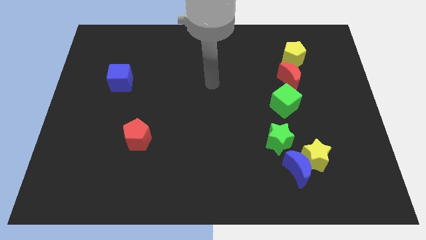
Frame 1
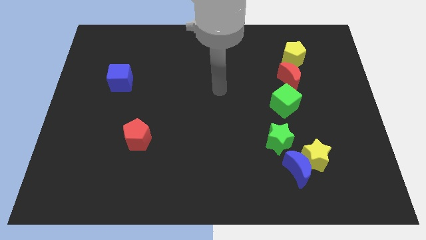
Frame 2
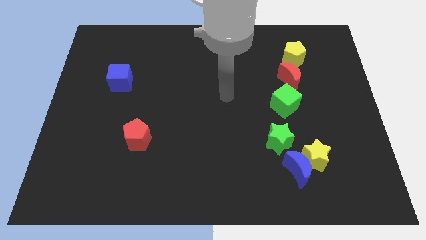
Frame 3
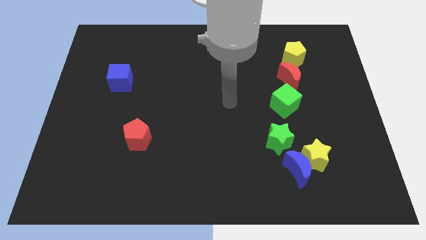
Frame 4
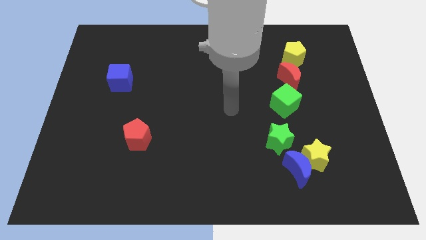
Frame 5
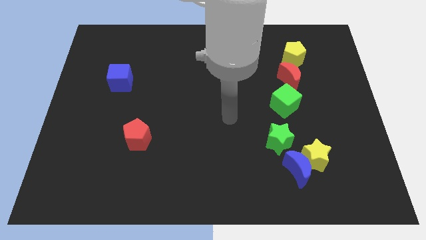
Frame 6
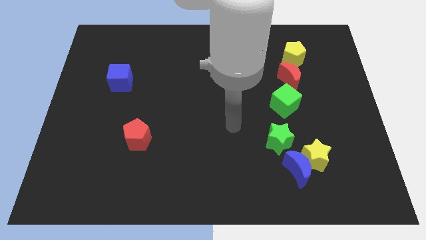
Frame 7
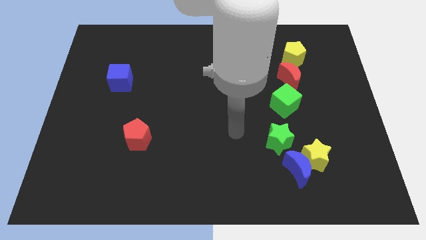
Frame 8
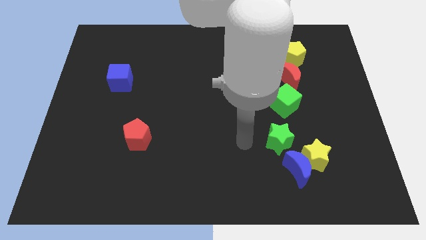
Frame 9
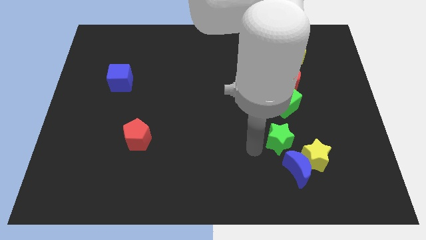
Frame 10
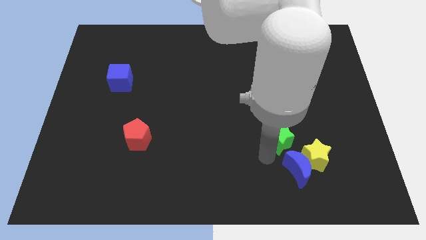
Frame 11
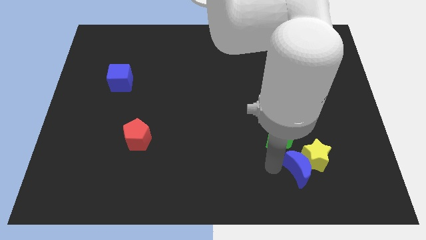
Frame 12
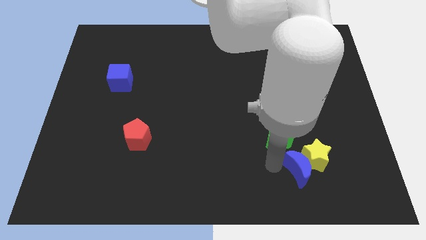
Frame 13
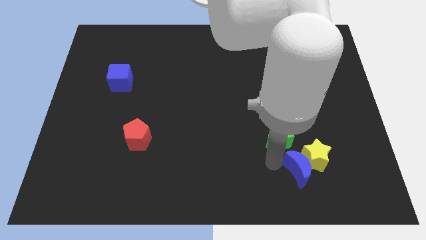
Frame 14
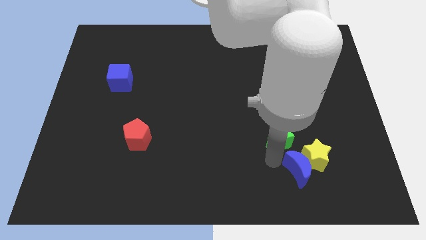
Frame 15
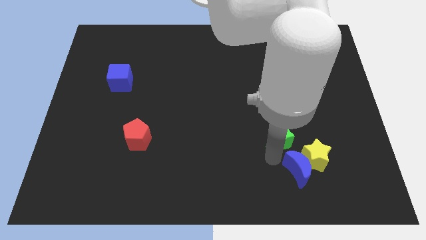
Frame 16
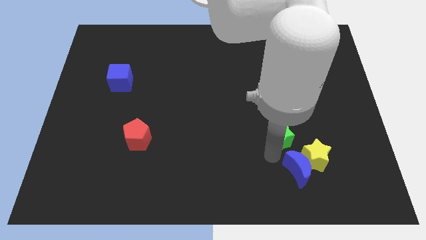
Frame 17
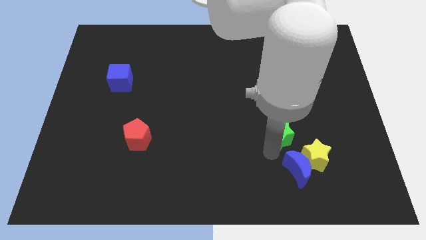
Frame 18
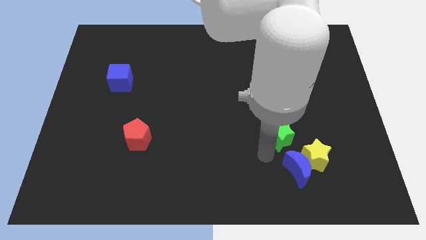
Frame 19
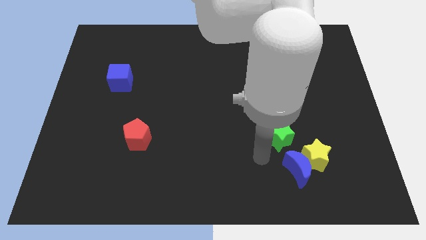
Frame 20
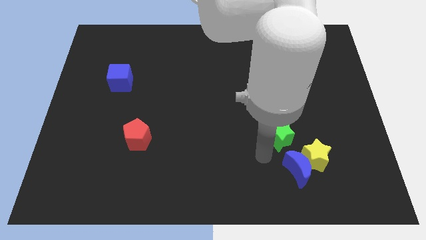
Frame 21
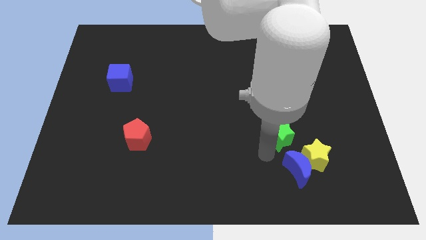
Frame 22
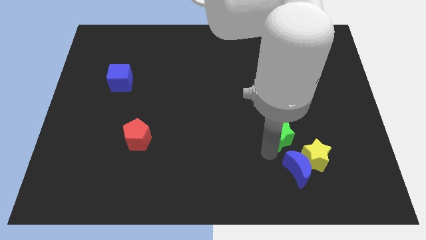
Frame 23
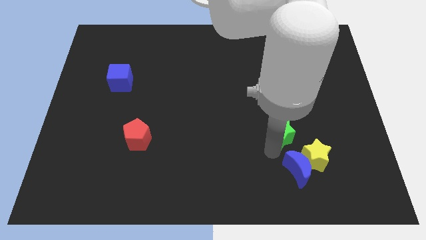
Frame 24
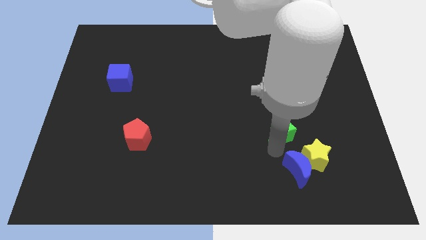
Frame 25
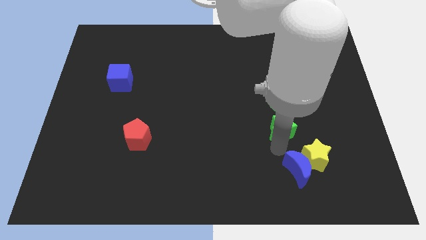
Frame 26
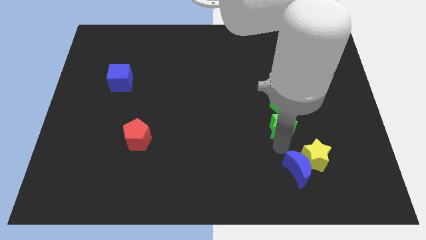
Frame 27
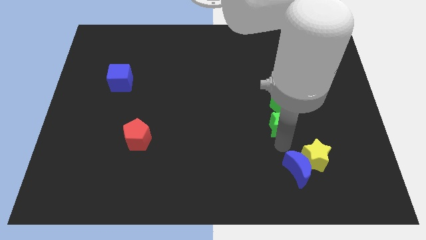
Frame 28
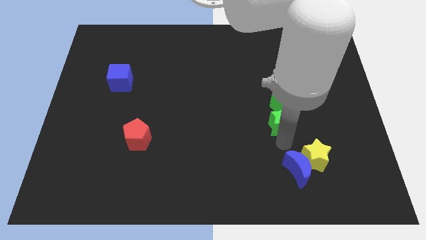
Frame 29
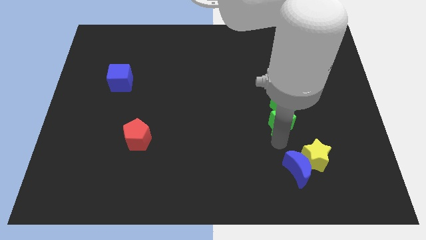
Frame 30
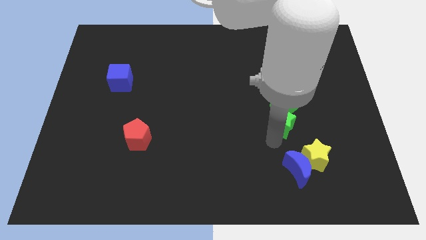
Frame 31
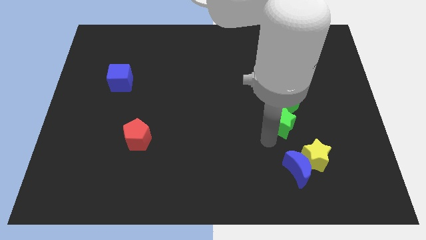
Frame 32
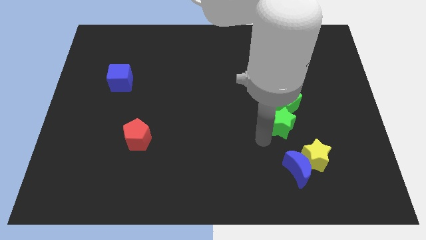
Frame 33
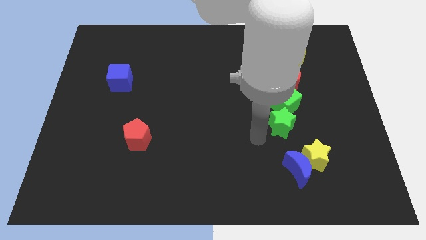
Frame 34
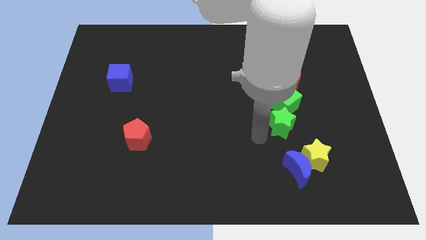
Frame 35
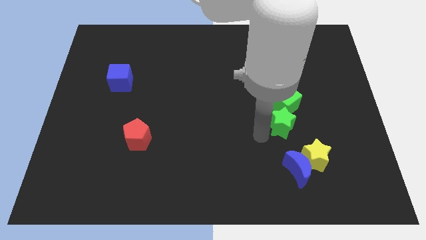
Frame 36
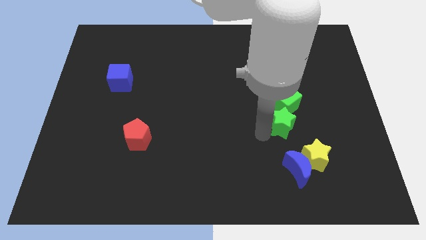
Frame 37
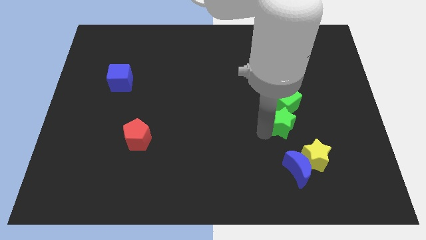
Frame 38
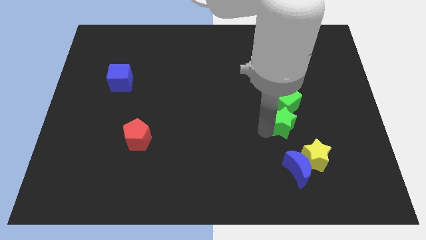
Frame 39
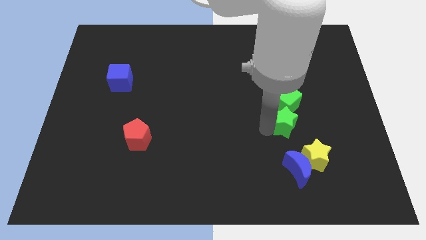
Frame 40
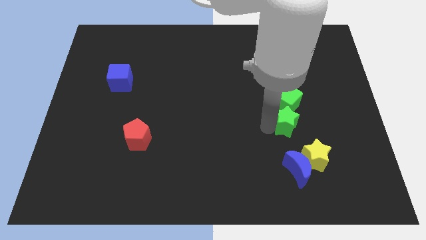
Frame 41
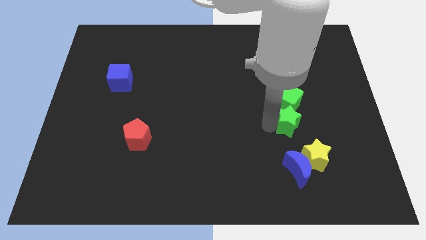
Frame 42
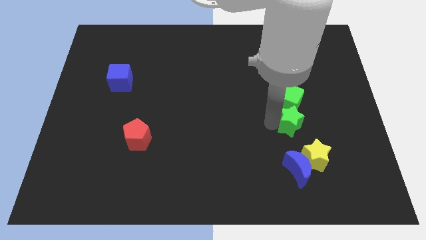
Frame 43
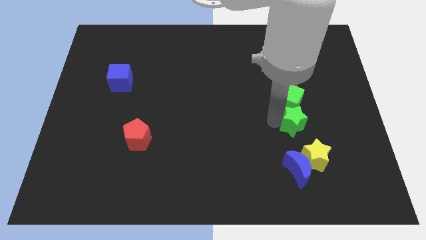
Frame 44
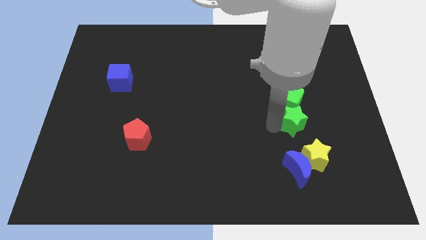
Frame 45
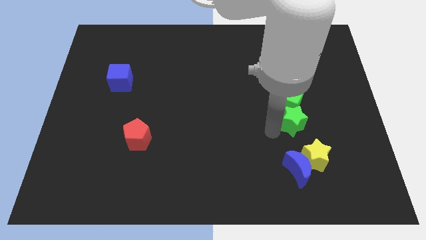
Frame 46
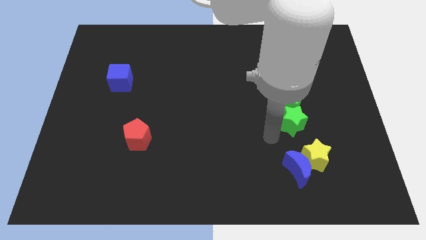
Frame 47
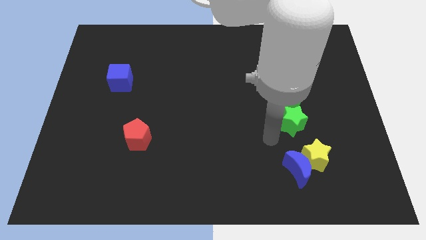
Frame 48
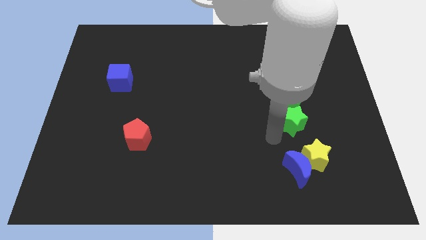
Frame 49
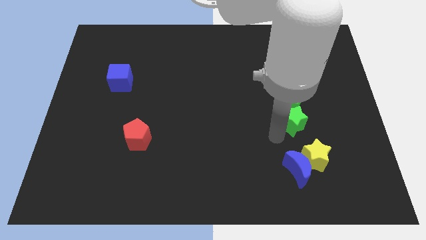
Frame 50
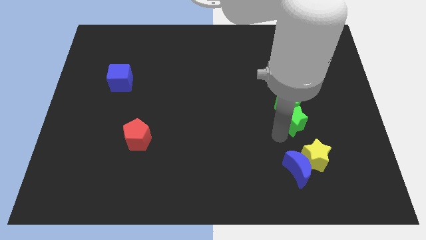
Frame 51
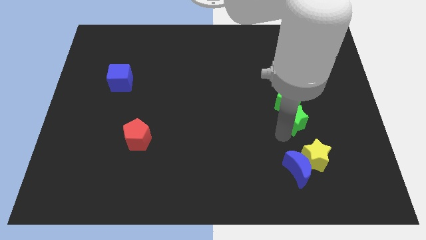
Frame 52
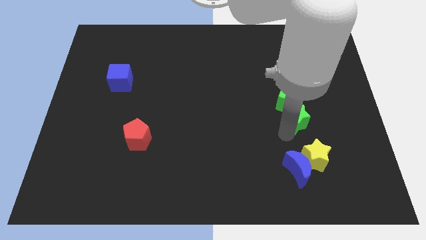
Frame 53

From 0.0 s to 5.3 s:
push the green star up and to the right a bit

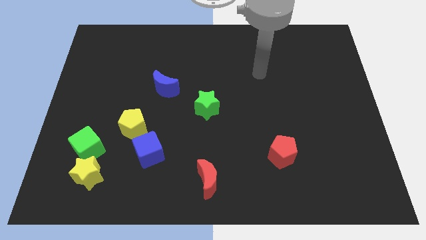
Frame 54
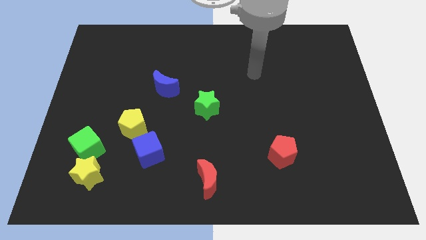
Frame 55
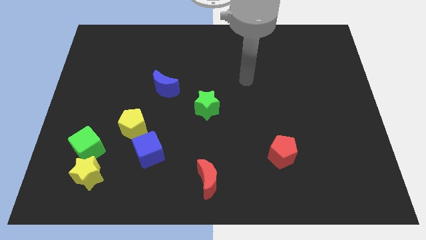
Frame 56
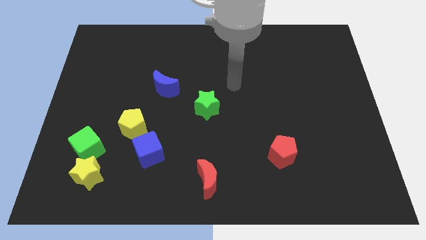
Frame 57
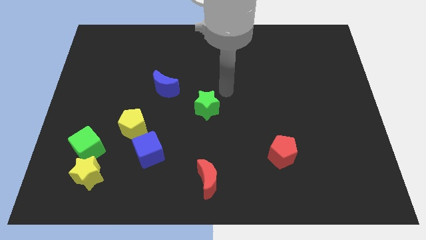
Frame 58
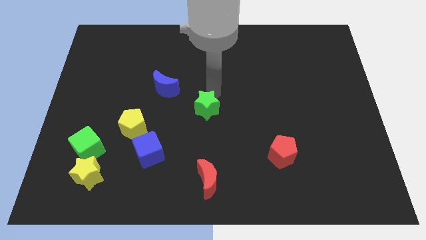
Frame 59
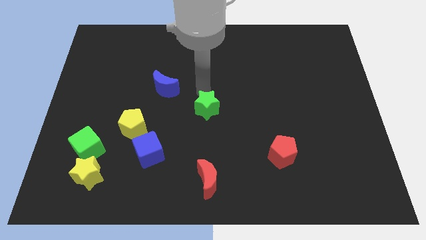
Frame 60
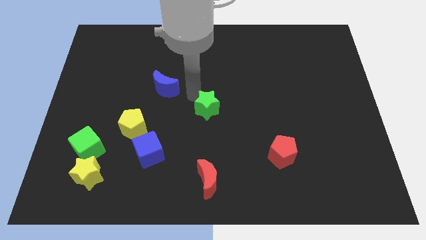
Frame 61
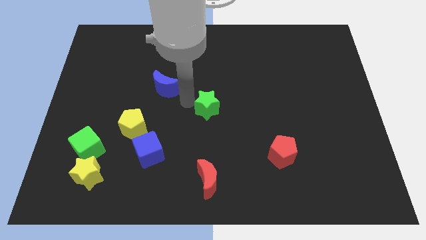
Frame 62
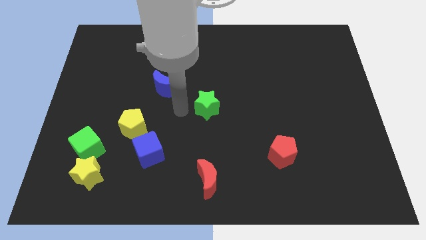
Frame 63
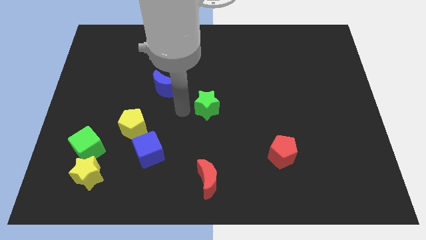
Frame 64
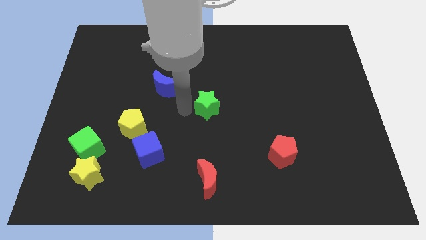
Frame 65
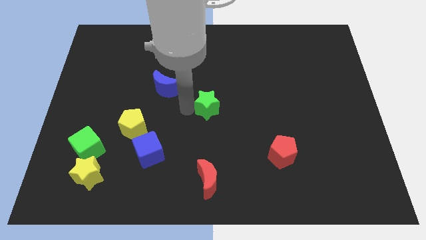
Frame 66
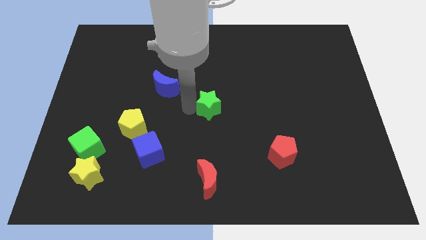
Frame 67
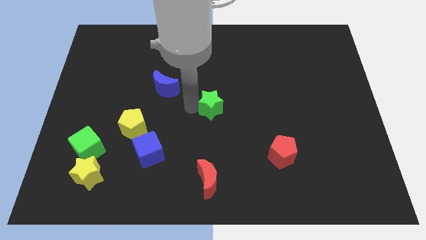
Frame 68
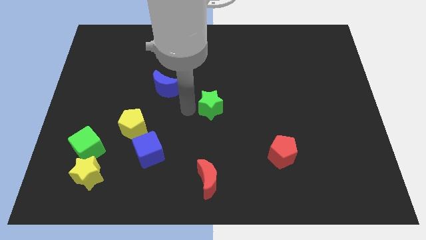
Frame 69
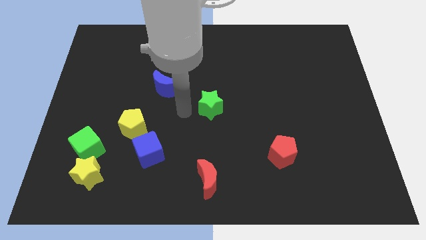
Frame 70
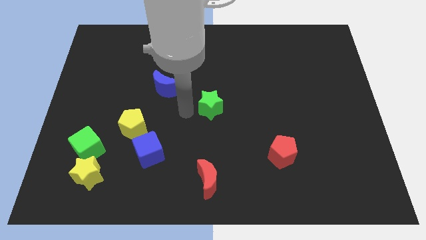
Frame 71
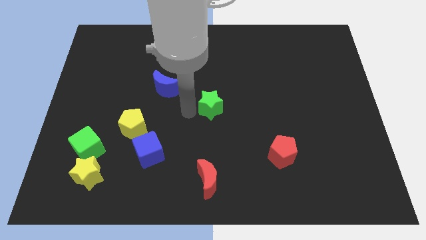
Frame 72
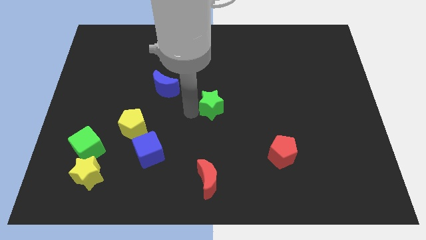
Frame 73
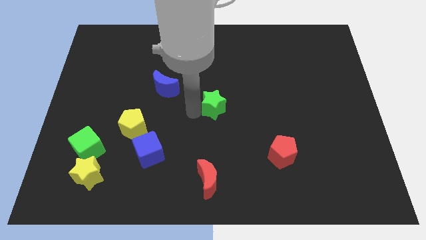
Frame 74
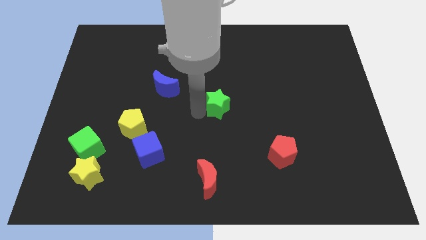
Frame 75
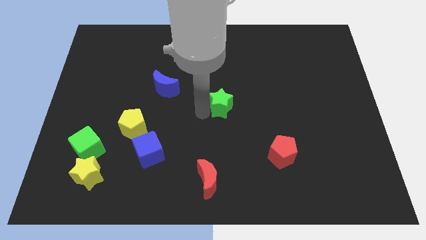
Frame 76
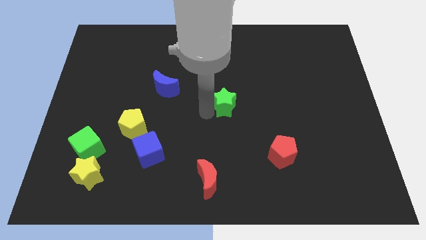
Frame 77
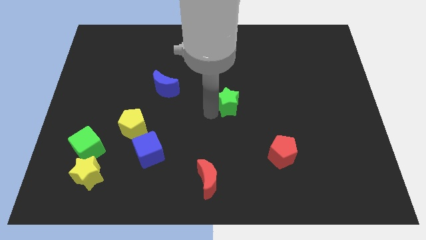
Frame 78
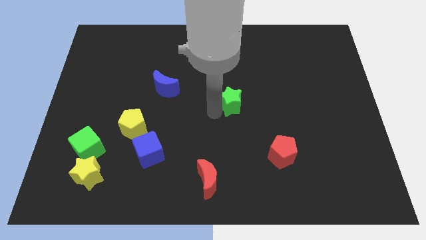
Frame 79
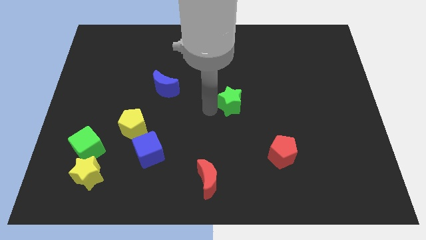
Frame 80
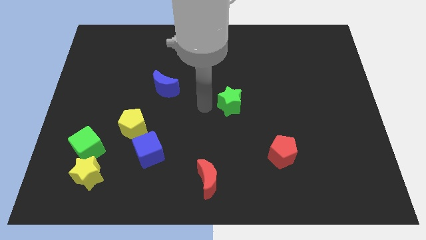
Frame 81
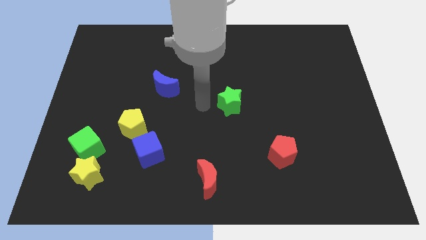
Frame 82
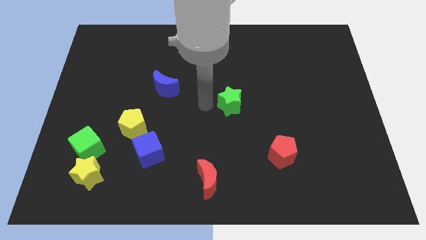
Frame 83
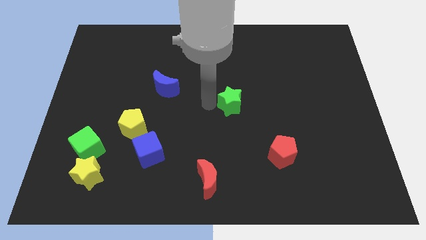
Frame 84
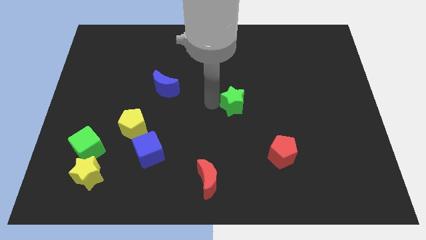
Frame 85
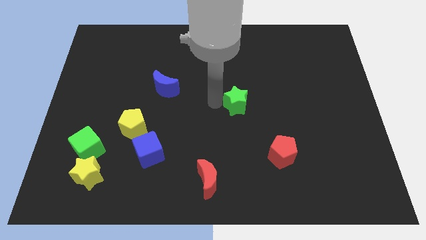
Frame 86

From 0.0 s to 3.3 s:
push the green star to the right a bit
